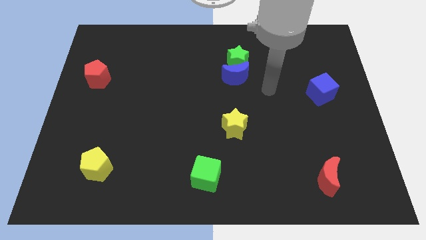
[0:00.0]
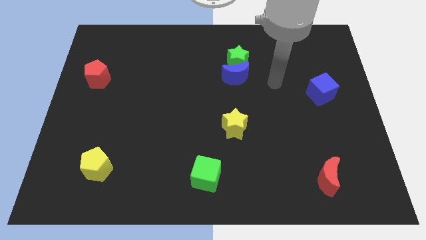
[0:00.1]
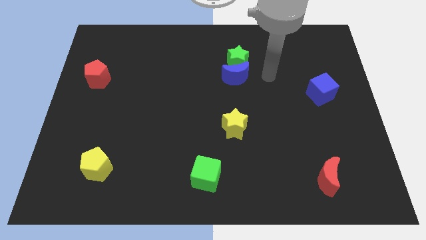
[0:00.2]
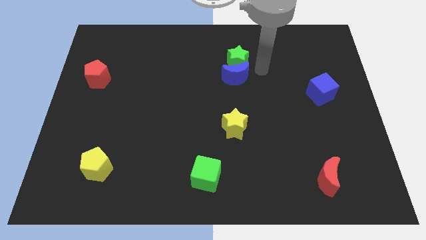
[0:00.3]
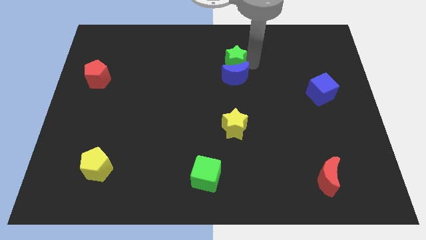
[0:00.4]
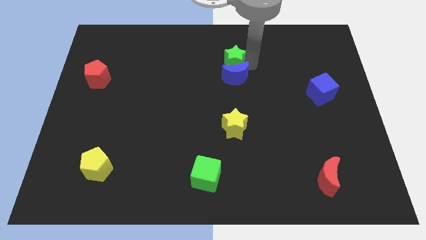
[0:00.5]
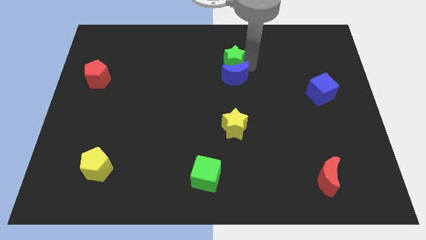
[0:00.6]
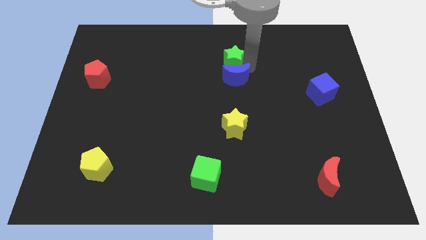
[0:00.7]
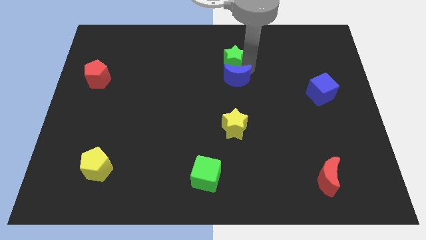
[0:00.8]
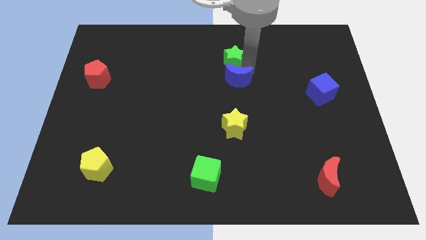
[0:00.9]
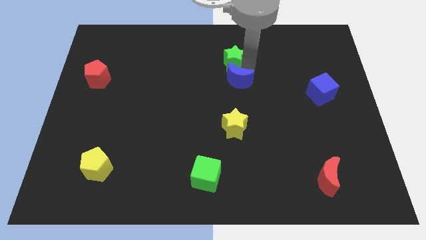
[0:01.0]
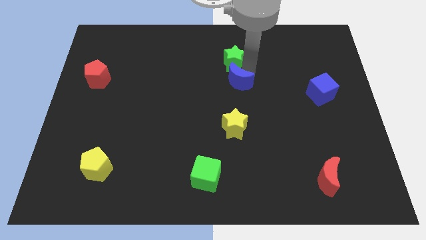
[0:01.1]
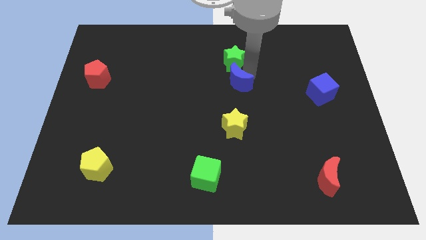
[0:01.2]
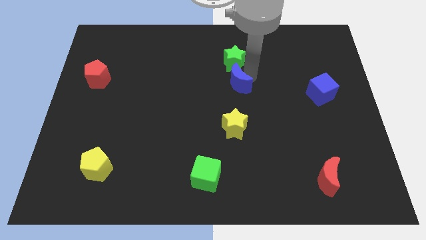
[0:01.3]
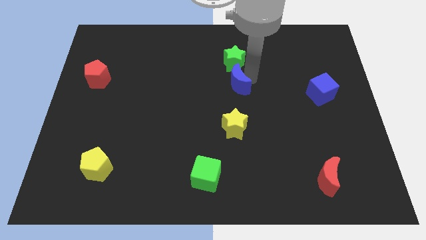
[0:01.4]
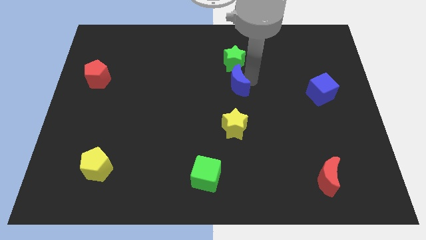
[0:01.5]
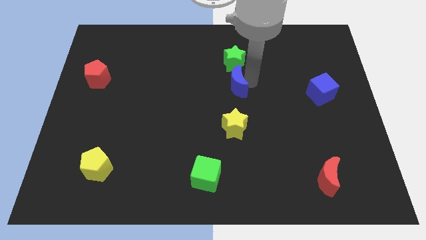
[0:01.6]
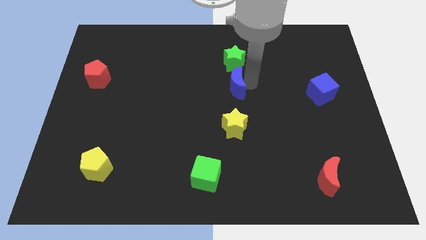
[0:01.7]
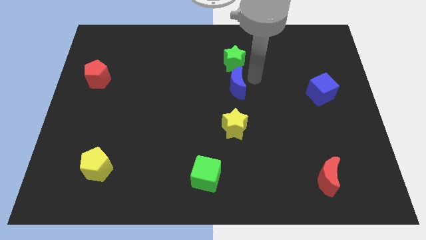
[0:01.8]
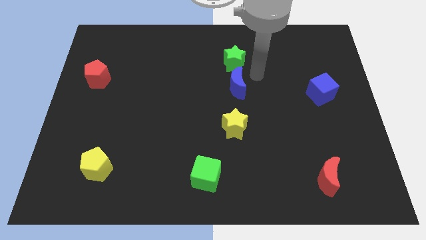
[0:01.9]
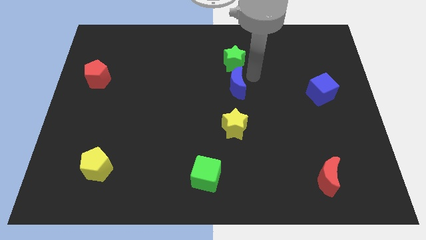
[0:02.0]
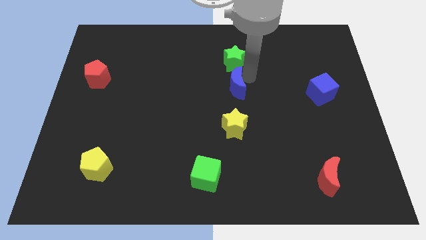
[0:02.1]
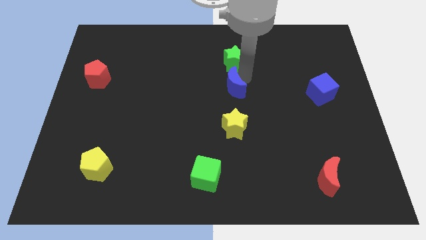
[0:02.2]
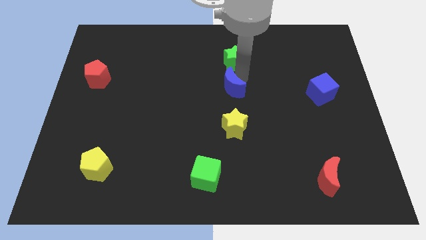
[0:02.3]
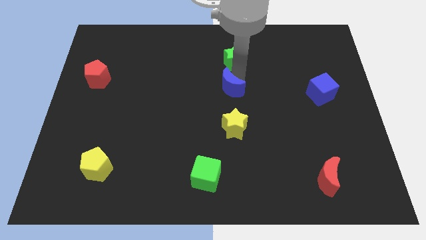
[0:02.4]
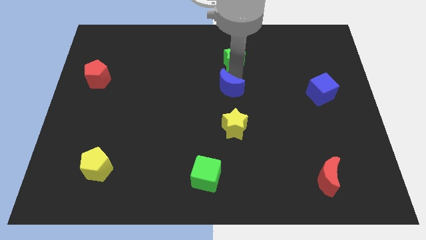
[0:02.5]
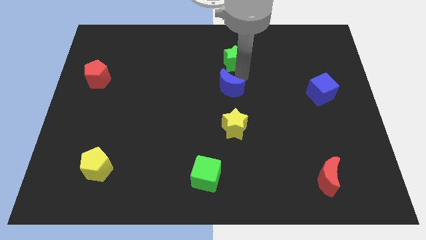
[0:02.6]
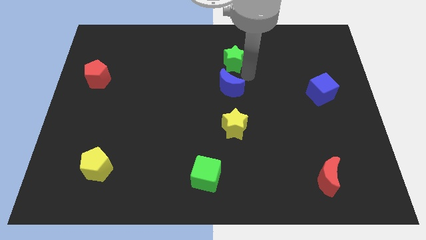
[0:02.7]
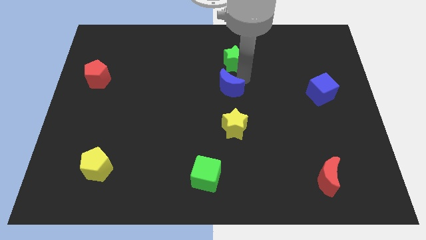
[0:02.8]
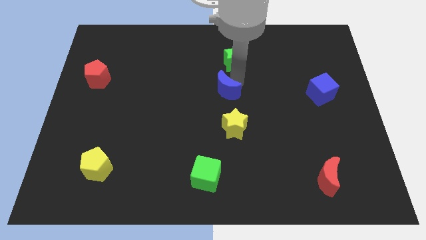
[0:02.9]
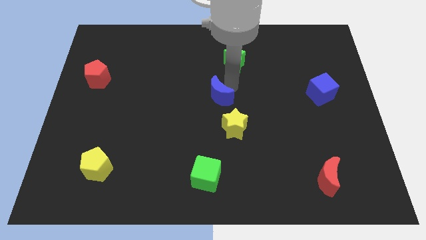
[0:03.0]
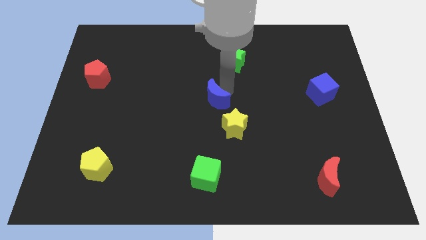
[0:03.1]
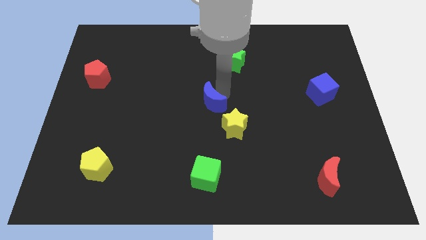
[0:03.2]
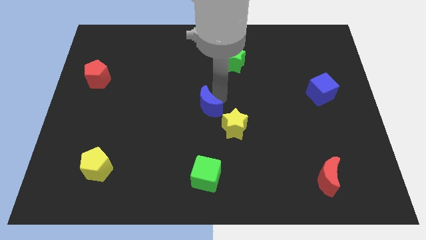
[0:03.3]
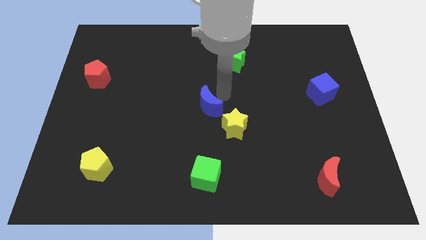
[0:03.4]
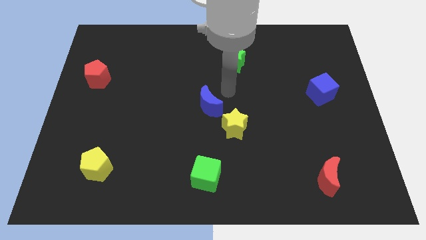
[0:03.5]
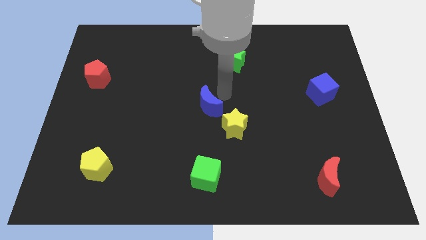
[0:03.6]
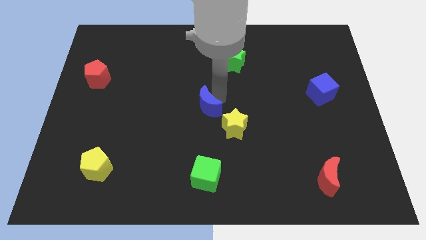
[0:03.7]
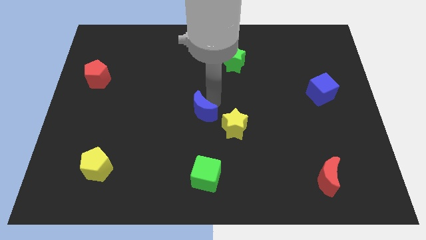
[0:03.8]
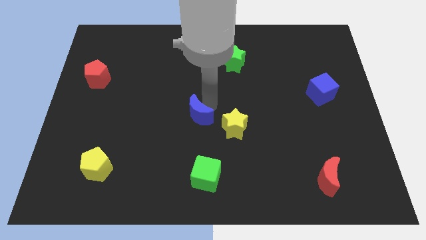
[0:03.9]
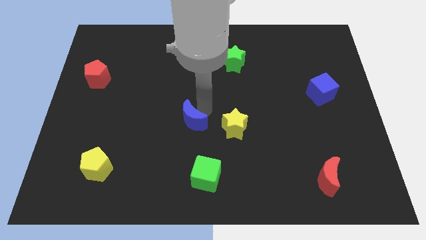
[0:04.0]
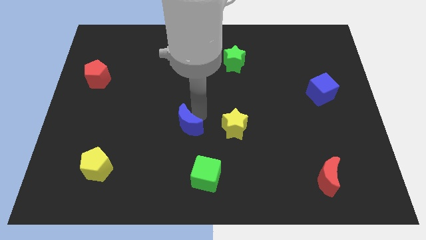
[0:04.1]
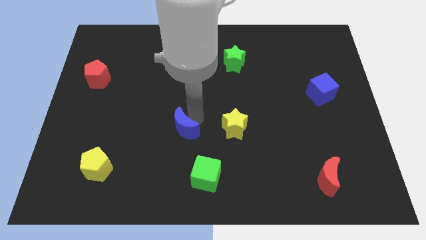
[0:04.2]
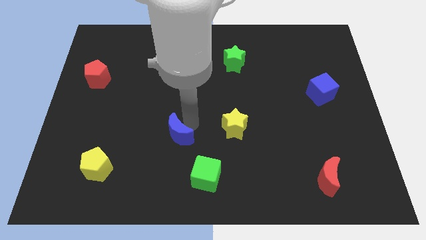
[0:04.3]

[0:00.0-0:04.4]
move the blue moon downwards and left

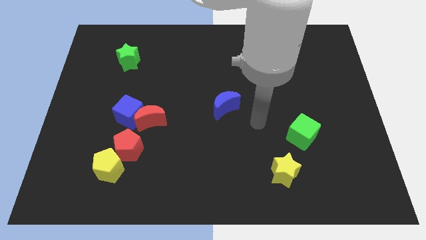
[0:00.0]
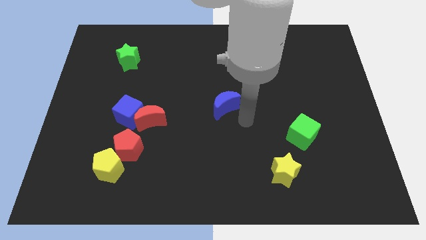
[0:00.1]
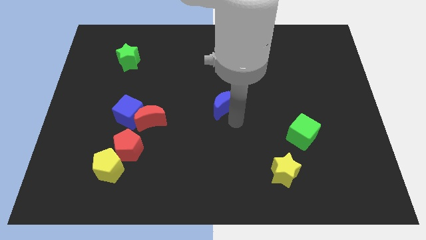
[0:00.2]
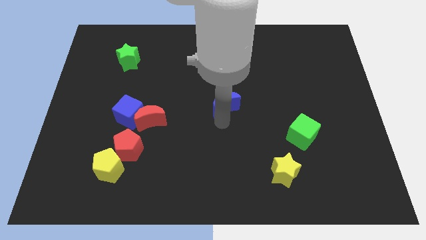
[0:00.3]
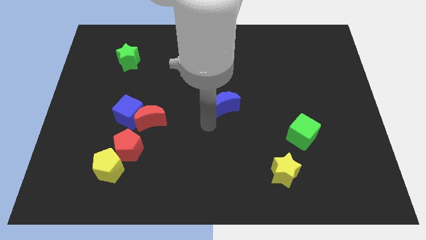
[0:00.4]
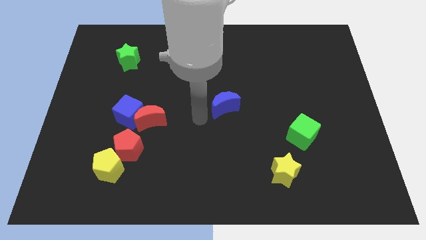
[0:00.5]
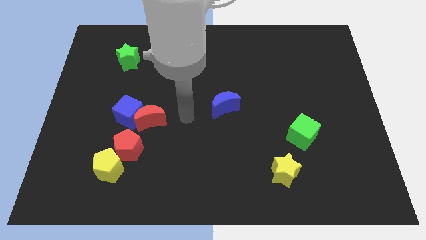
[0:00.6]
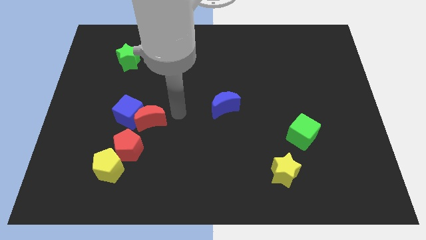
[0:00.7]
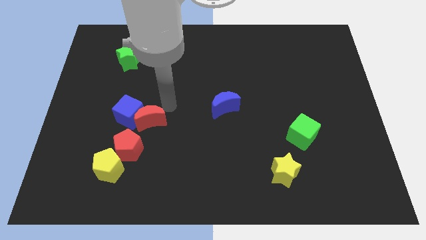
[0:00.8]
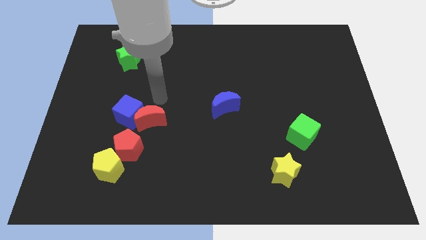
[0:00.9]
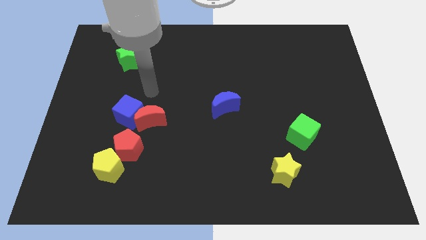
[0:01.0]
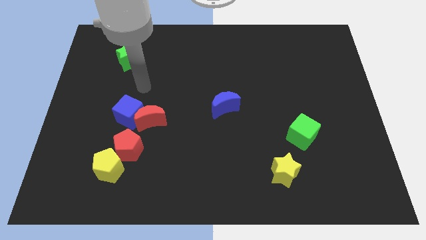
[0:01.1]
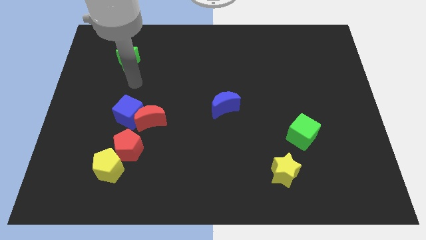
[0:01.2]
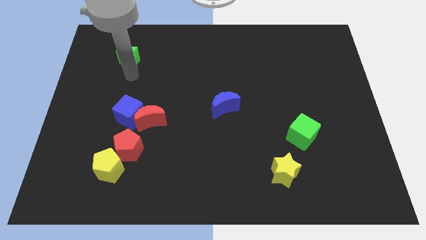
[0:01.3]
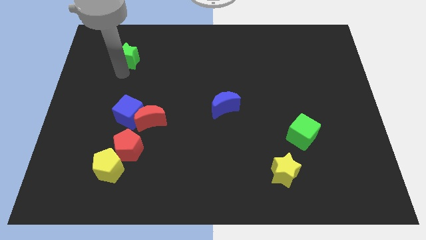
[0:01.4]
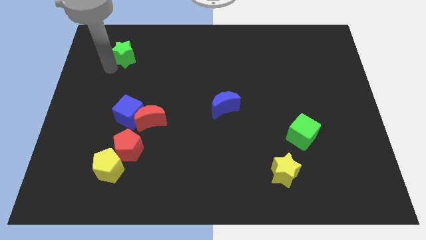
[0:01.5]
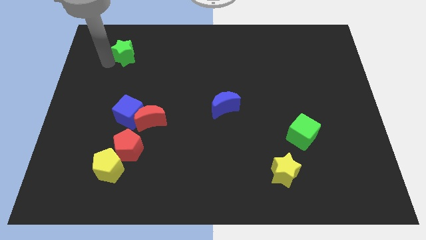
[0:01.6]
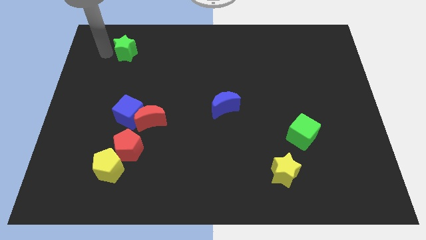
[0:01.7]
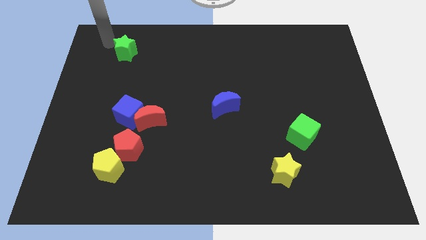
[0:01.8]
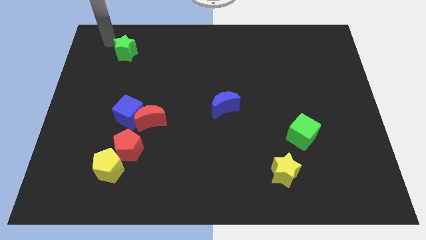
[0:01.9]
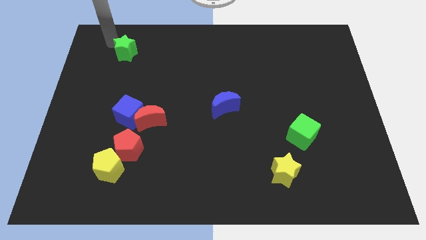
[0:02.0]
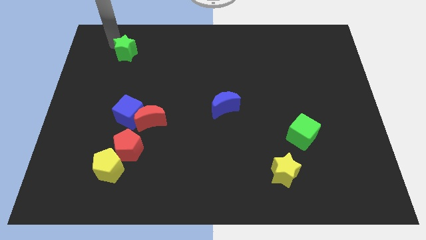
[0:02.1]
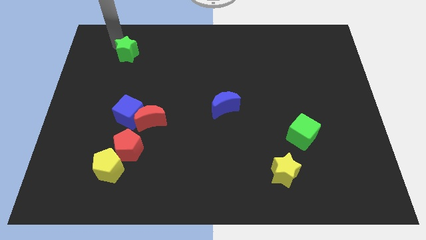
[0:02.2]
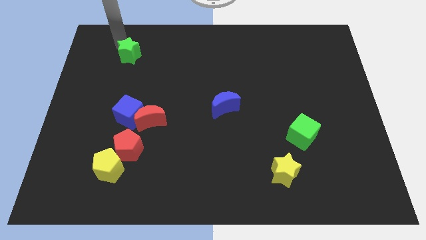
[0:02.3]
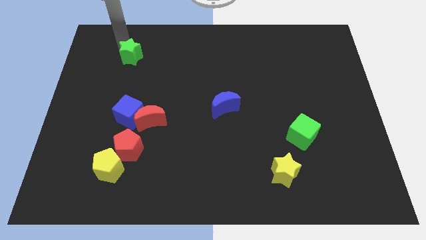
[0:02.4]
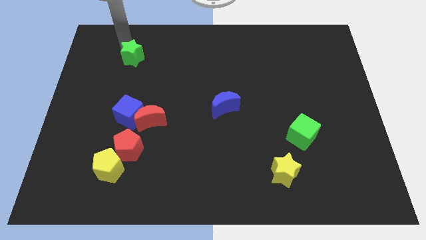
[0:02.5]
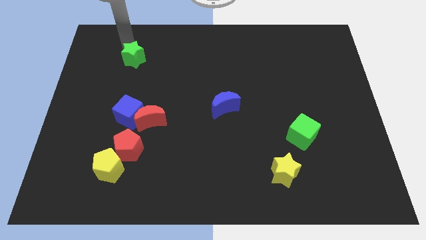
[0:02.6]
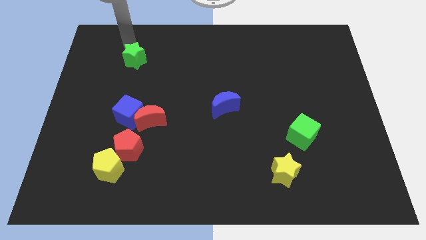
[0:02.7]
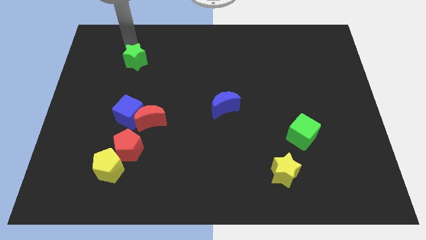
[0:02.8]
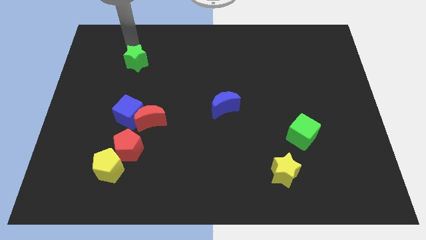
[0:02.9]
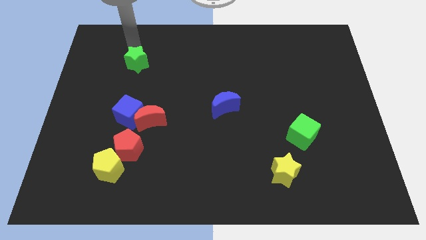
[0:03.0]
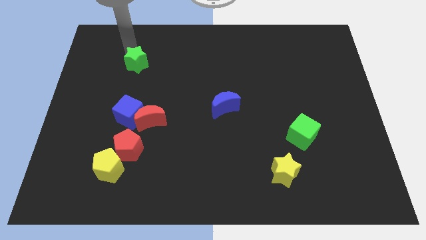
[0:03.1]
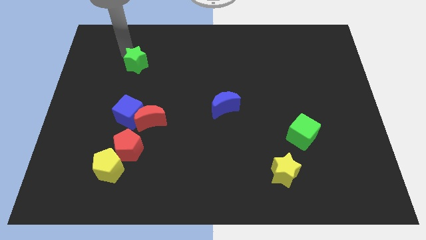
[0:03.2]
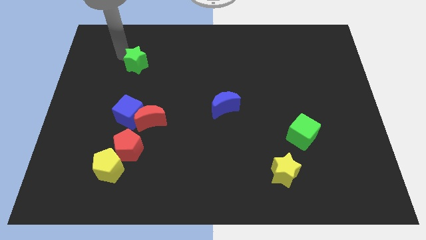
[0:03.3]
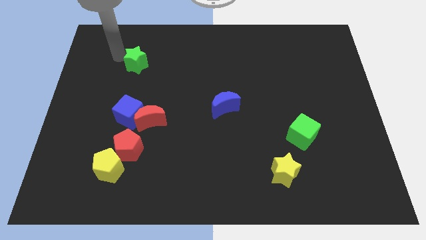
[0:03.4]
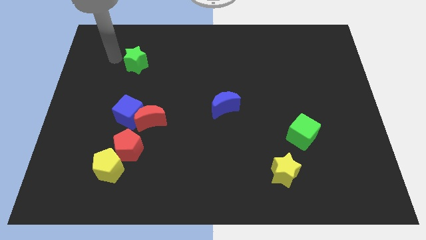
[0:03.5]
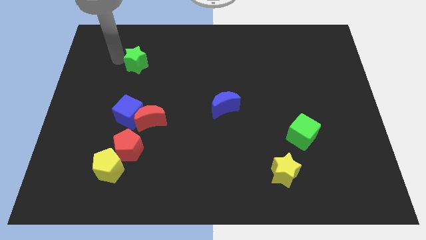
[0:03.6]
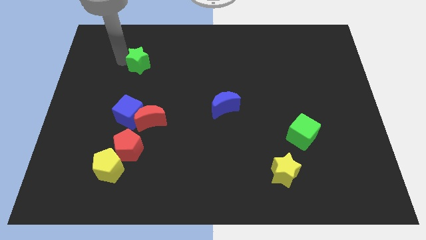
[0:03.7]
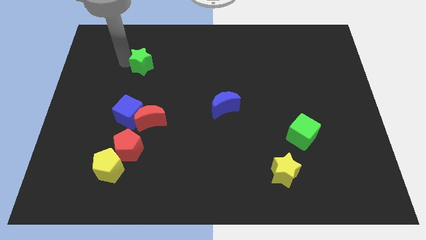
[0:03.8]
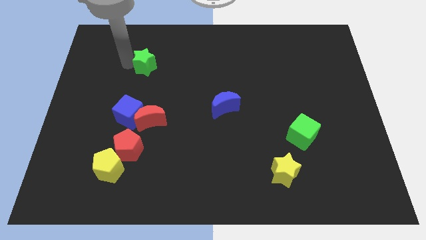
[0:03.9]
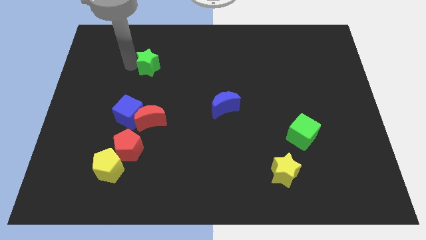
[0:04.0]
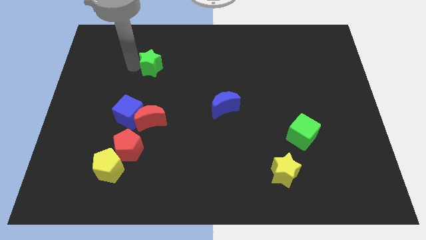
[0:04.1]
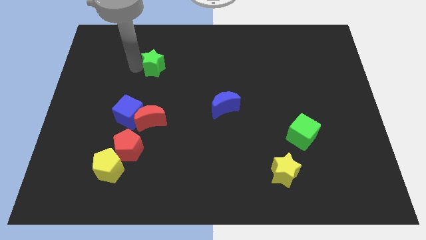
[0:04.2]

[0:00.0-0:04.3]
move the green star right a little bit
